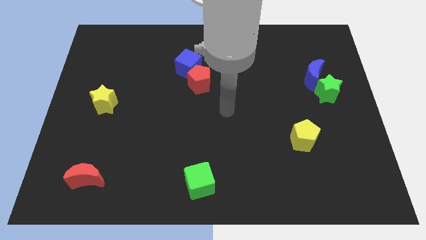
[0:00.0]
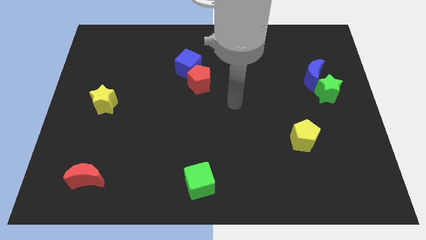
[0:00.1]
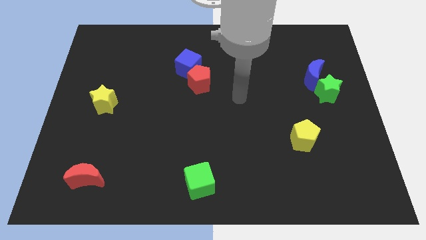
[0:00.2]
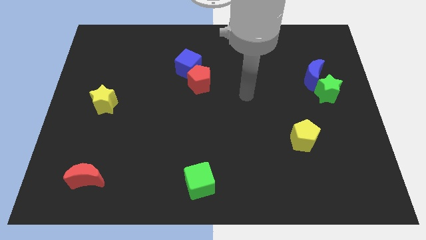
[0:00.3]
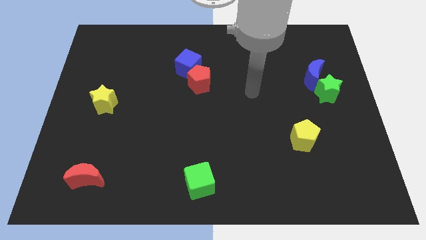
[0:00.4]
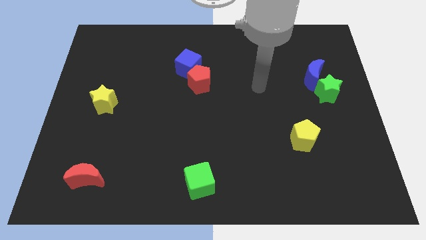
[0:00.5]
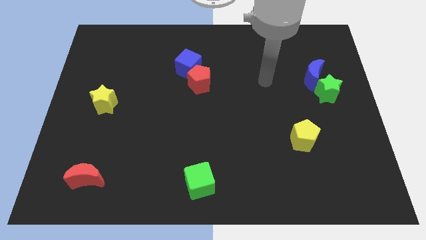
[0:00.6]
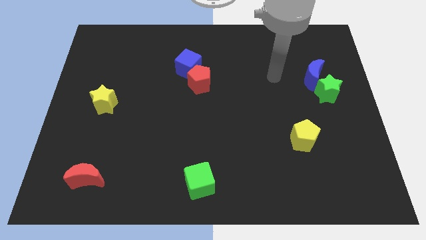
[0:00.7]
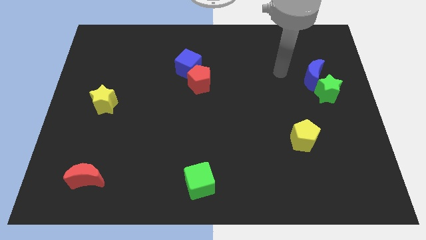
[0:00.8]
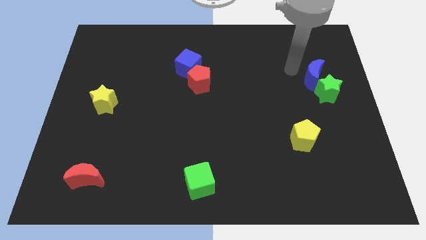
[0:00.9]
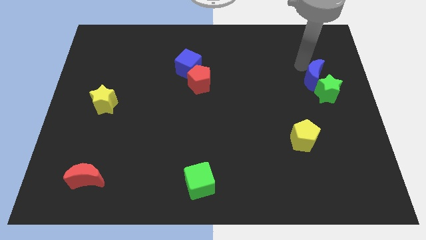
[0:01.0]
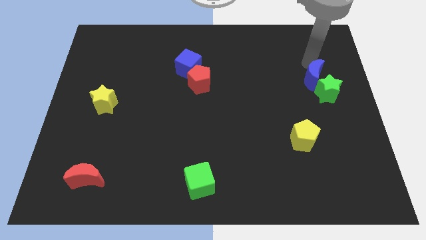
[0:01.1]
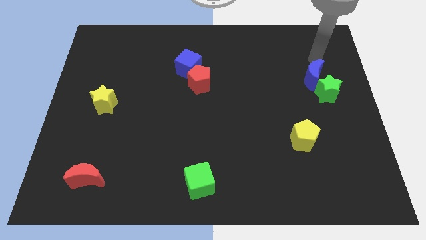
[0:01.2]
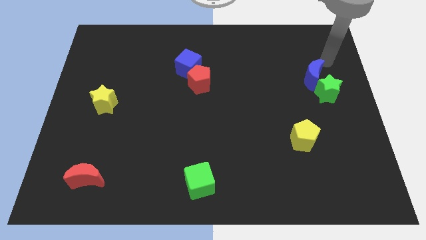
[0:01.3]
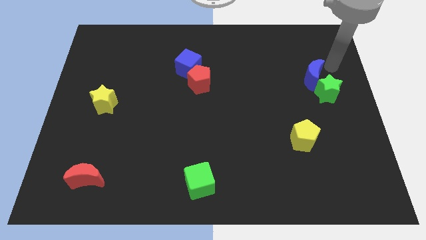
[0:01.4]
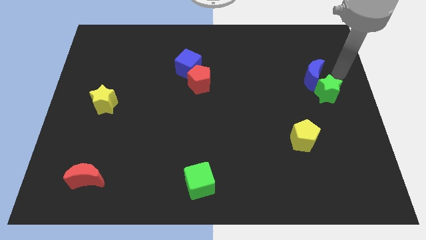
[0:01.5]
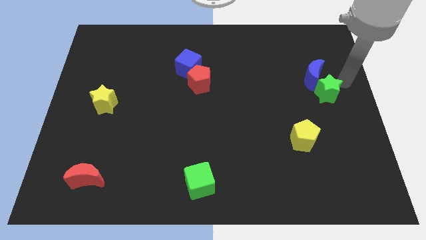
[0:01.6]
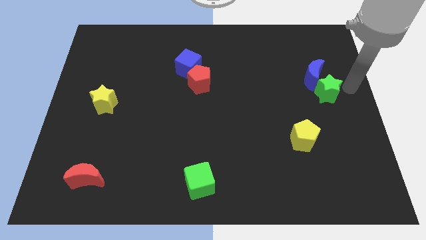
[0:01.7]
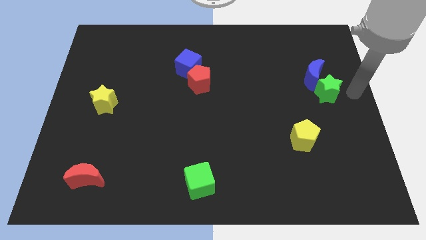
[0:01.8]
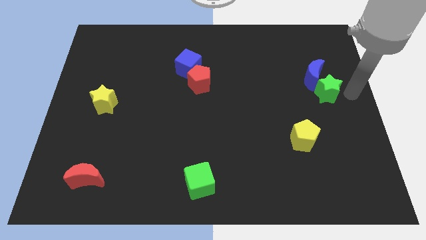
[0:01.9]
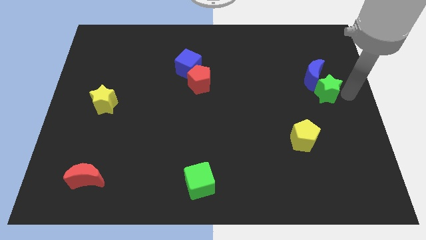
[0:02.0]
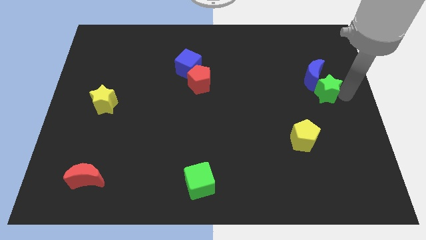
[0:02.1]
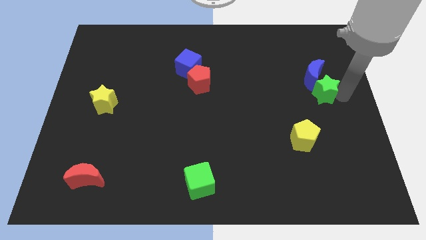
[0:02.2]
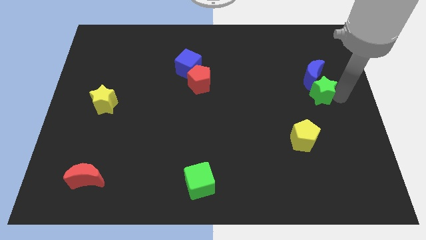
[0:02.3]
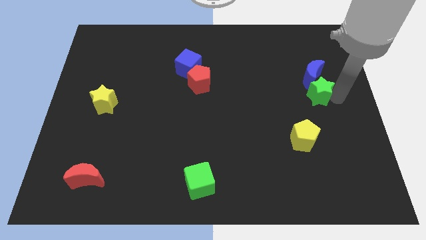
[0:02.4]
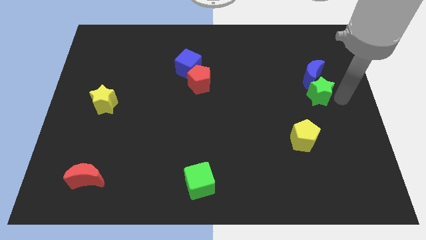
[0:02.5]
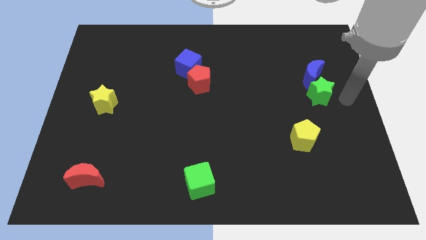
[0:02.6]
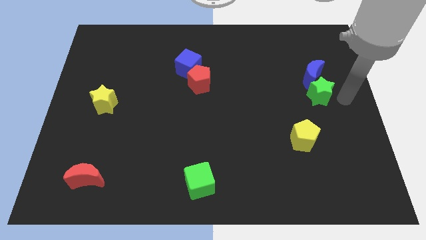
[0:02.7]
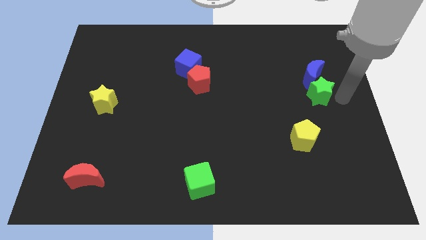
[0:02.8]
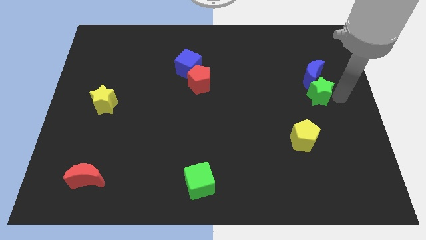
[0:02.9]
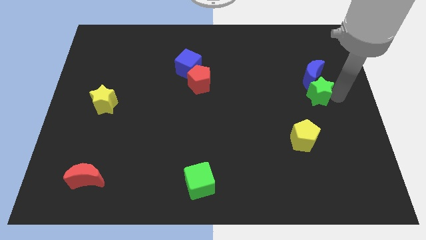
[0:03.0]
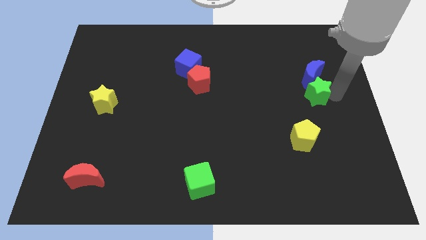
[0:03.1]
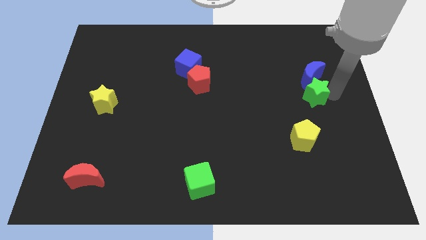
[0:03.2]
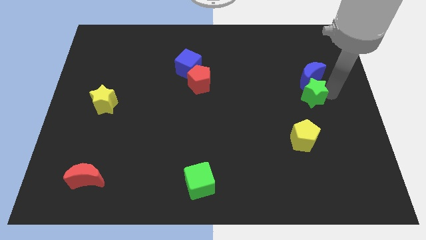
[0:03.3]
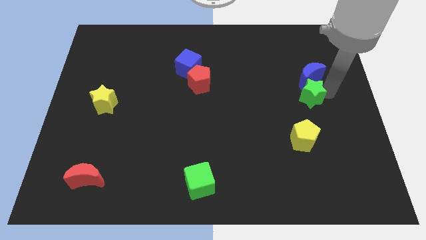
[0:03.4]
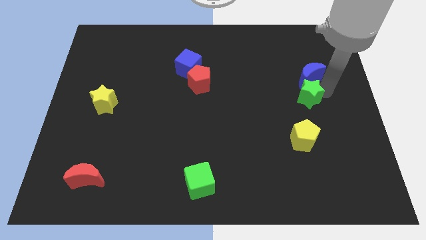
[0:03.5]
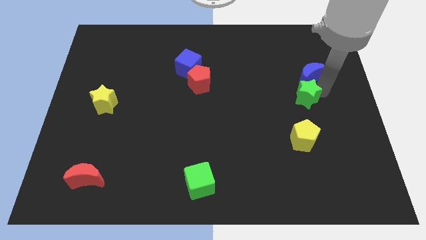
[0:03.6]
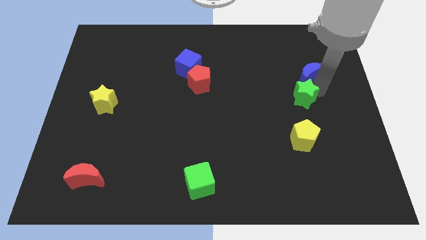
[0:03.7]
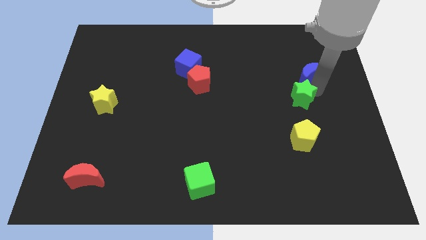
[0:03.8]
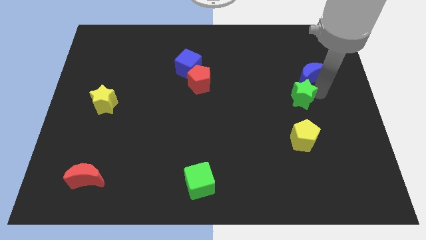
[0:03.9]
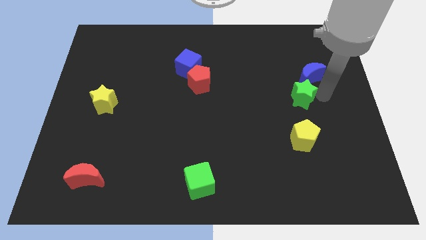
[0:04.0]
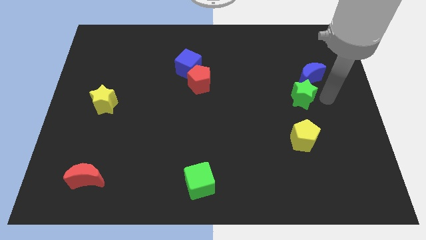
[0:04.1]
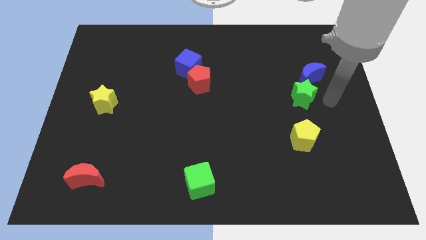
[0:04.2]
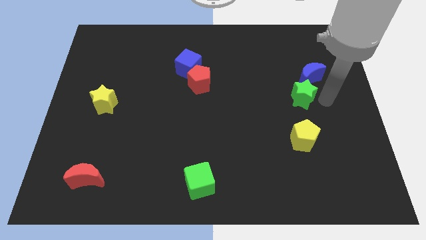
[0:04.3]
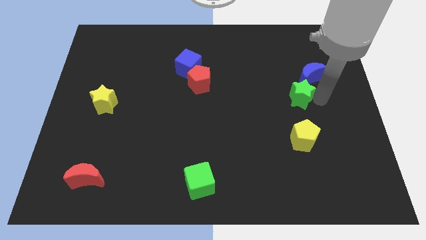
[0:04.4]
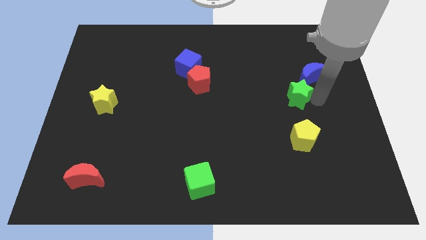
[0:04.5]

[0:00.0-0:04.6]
move the green star somewhat left

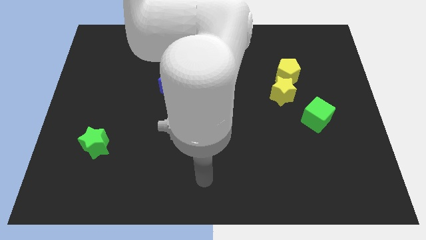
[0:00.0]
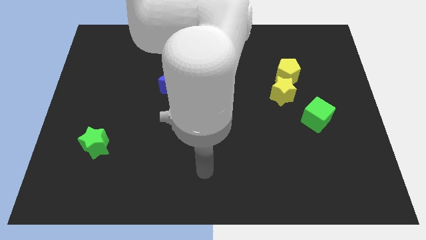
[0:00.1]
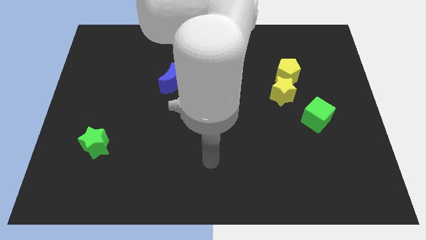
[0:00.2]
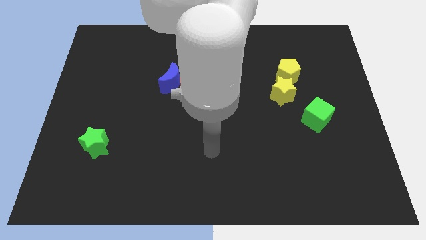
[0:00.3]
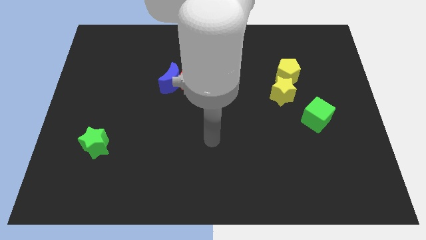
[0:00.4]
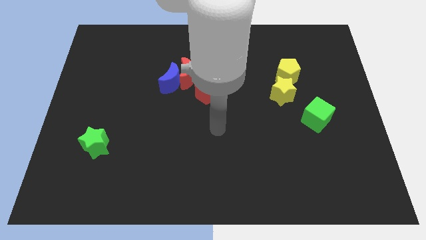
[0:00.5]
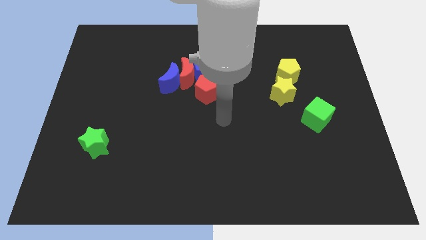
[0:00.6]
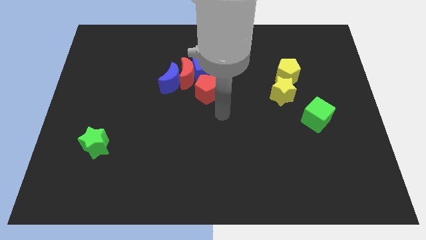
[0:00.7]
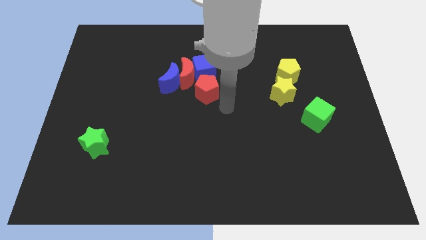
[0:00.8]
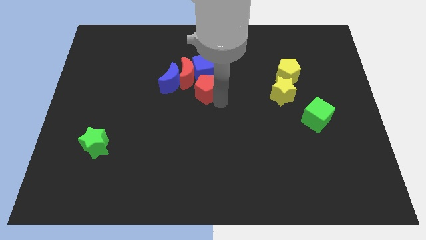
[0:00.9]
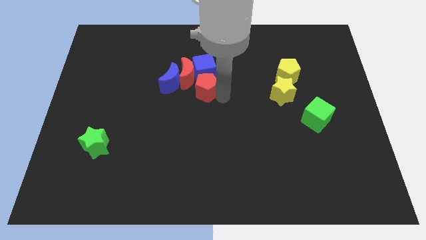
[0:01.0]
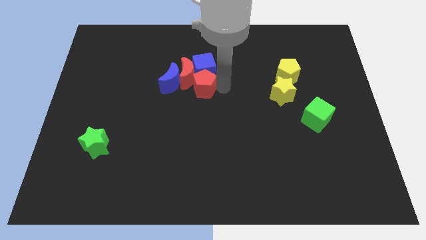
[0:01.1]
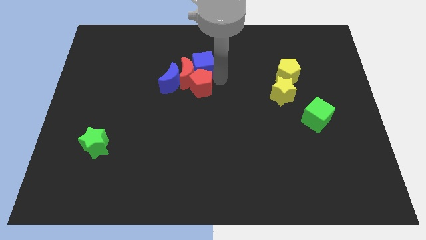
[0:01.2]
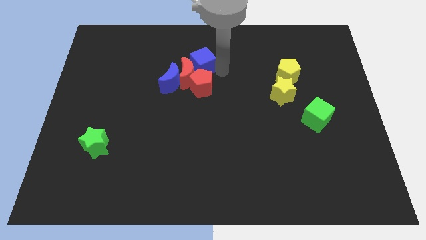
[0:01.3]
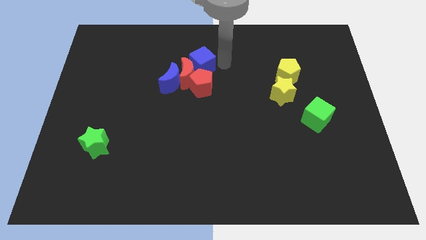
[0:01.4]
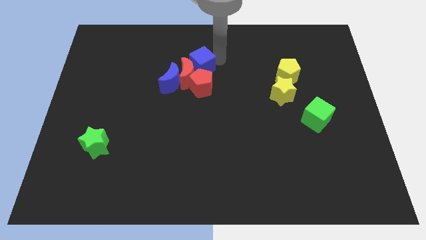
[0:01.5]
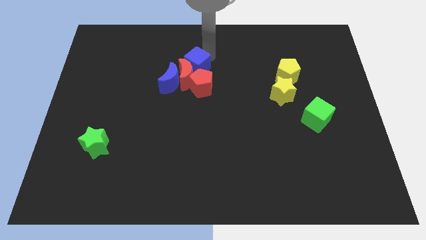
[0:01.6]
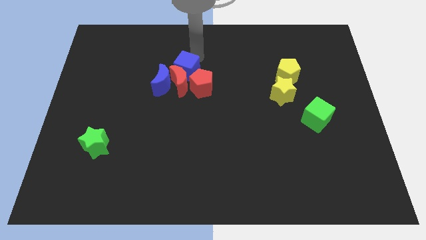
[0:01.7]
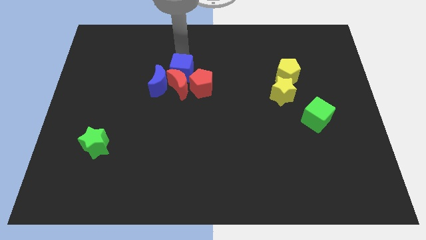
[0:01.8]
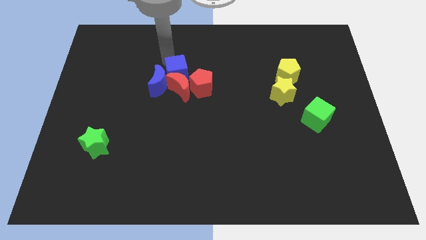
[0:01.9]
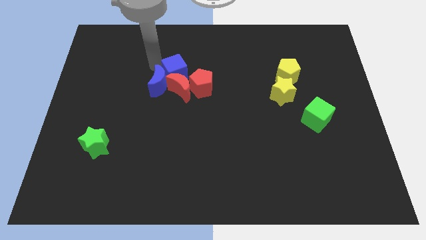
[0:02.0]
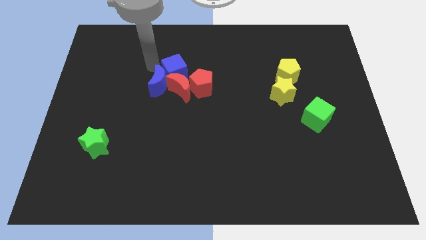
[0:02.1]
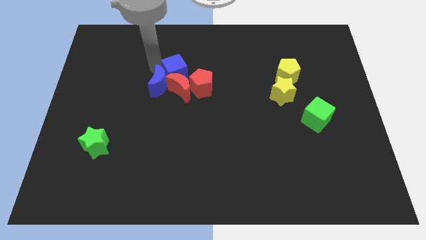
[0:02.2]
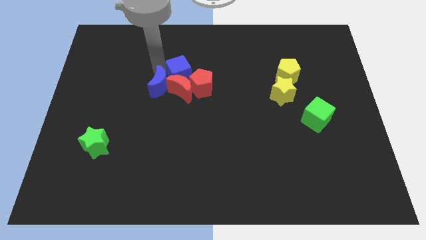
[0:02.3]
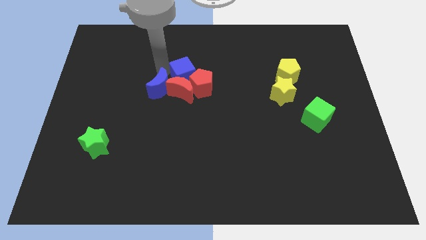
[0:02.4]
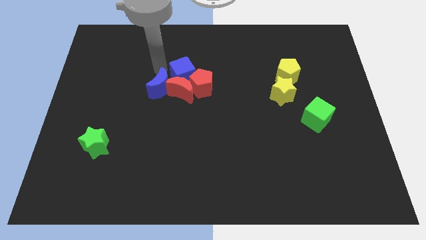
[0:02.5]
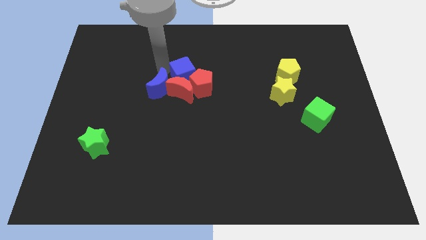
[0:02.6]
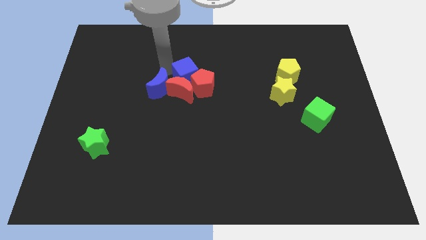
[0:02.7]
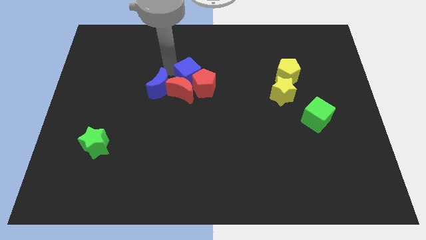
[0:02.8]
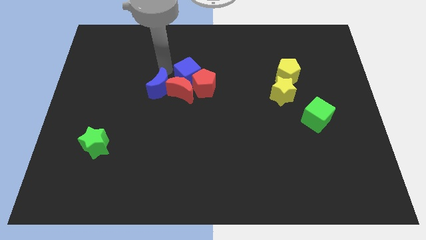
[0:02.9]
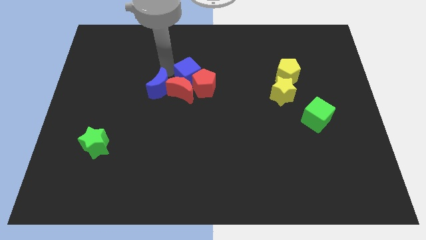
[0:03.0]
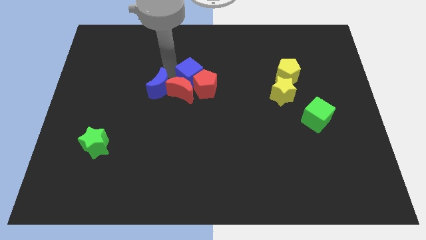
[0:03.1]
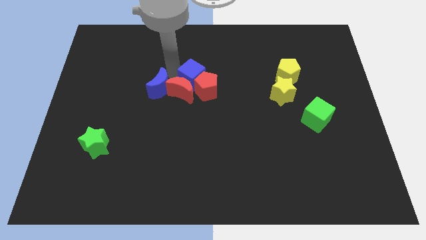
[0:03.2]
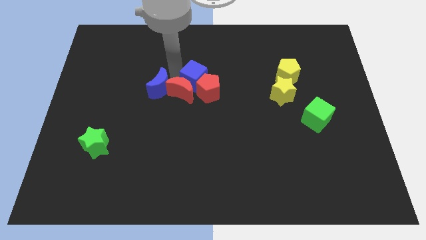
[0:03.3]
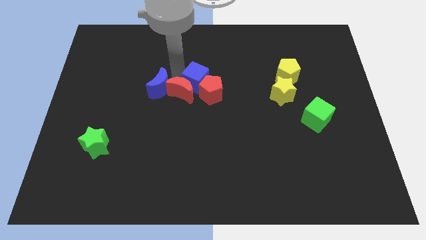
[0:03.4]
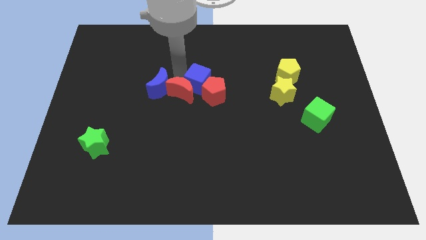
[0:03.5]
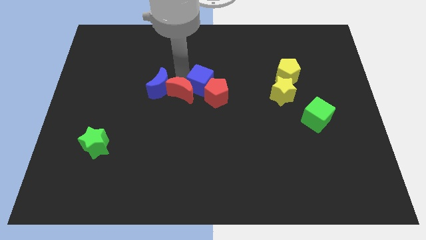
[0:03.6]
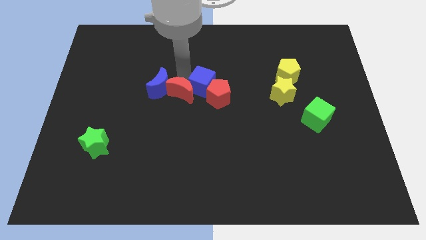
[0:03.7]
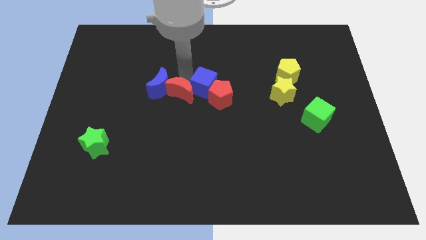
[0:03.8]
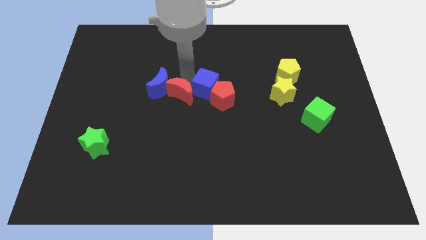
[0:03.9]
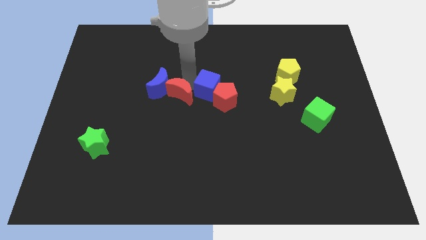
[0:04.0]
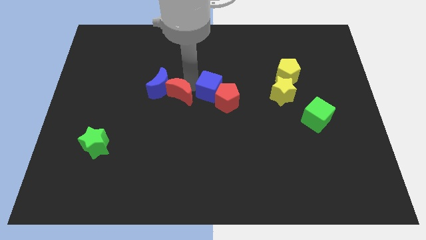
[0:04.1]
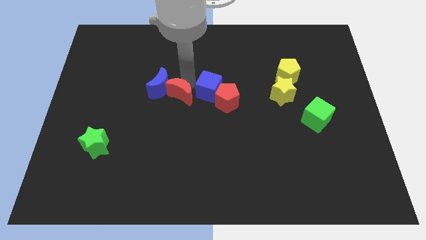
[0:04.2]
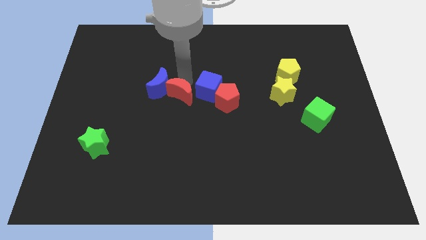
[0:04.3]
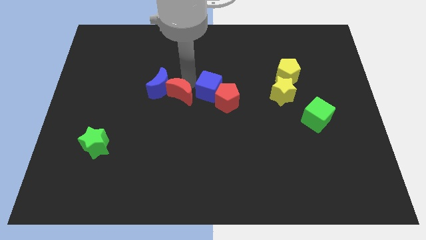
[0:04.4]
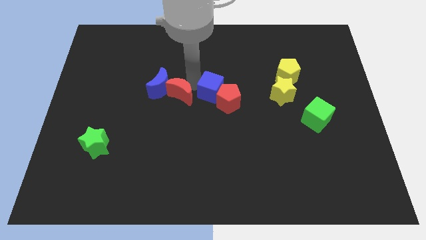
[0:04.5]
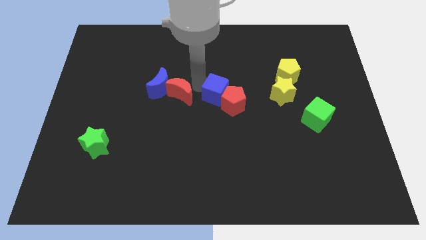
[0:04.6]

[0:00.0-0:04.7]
slide the blue cube downwards a little
